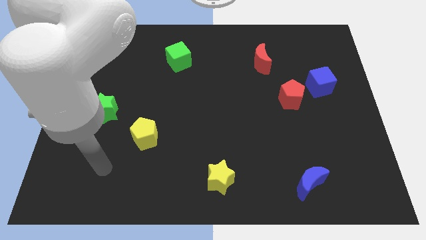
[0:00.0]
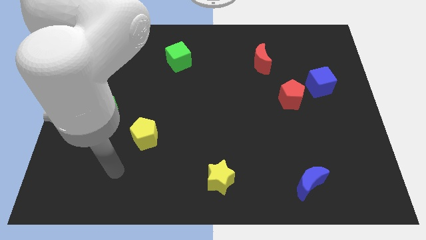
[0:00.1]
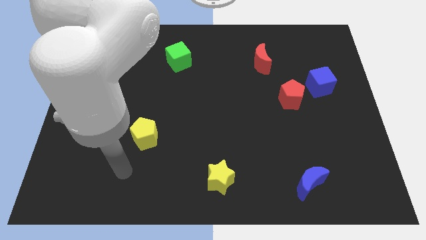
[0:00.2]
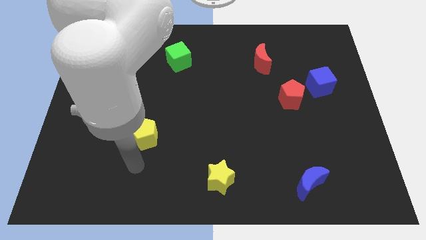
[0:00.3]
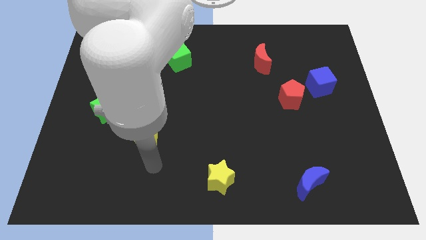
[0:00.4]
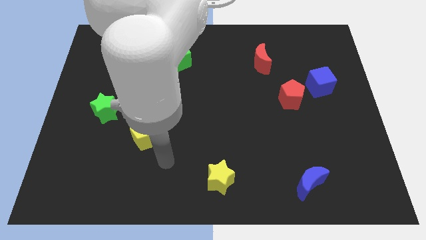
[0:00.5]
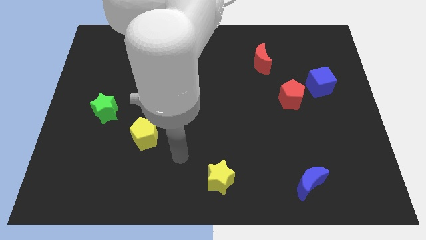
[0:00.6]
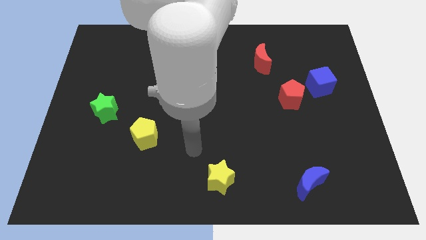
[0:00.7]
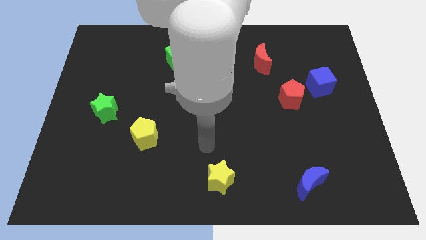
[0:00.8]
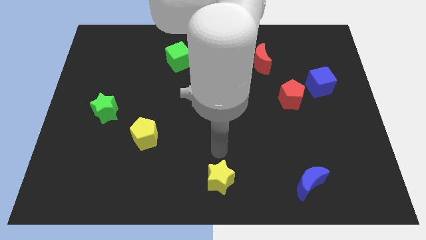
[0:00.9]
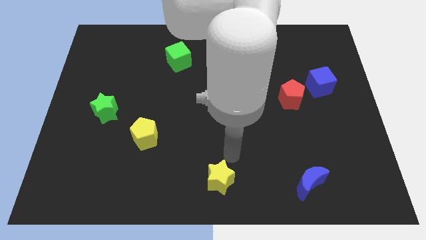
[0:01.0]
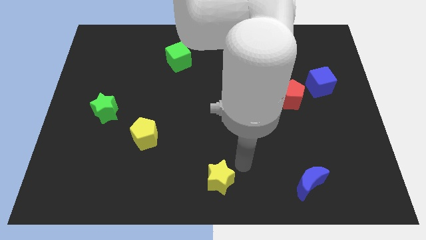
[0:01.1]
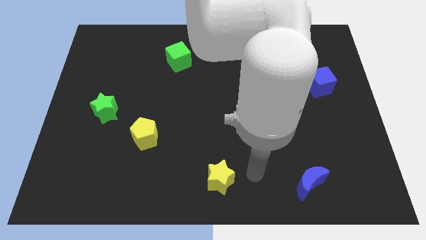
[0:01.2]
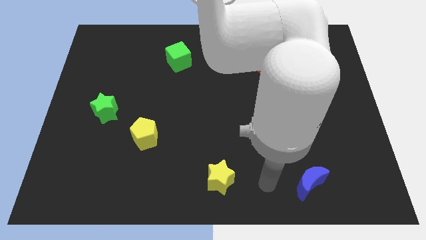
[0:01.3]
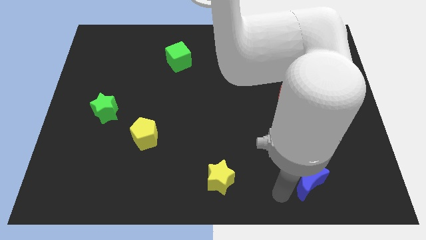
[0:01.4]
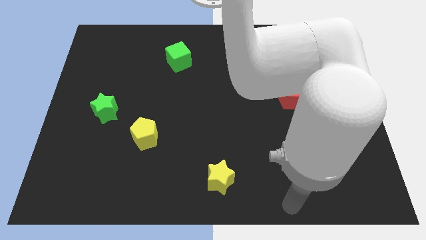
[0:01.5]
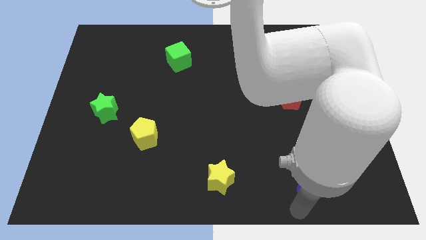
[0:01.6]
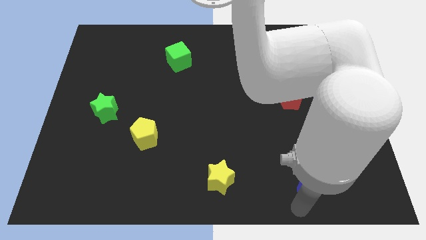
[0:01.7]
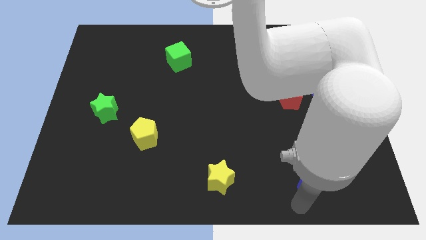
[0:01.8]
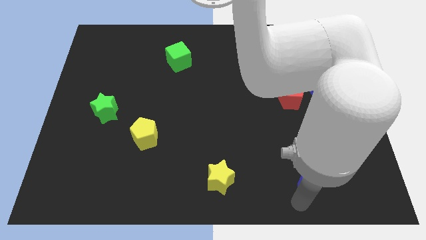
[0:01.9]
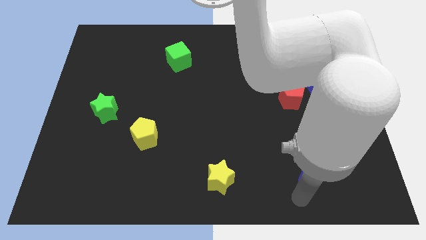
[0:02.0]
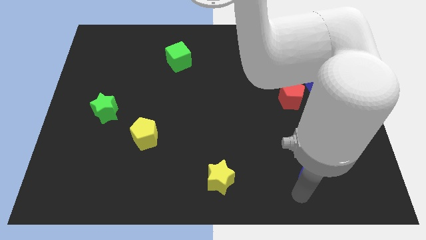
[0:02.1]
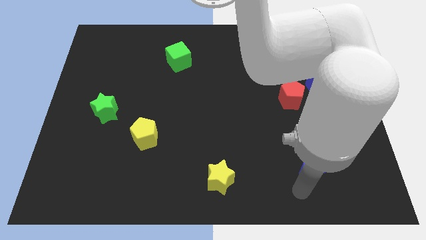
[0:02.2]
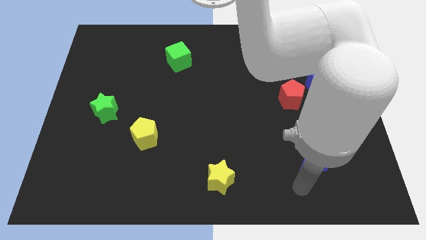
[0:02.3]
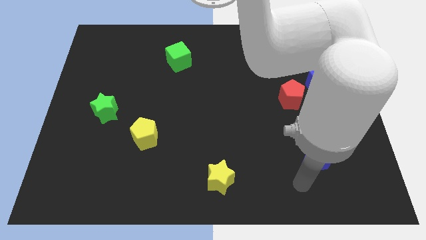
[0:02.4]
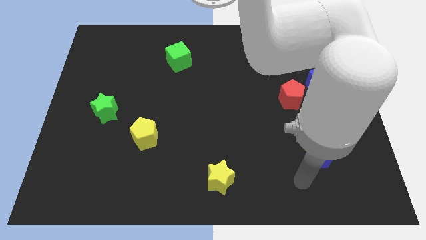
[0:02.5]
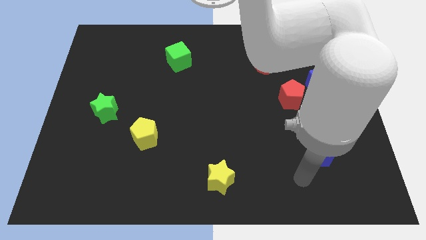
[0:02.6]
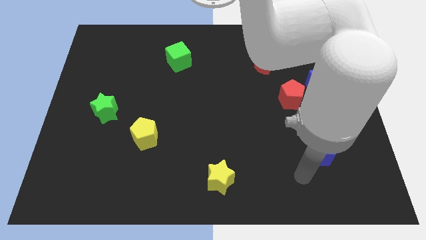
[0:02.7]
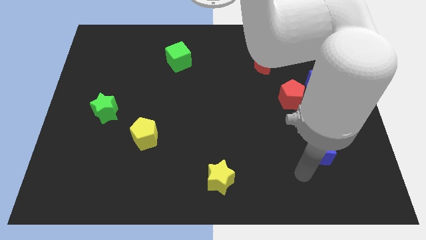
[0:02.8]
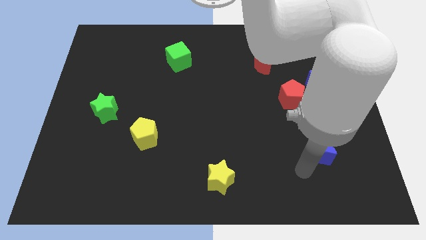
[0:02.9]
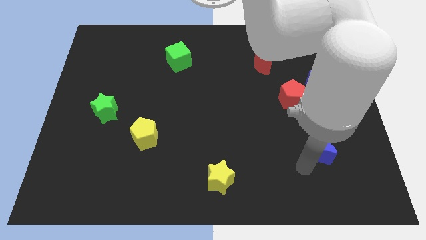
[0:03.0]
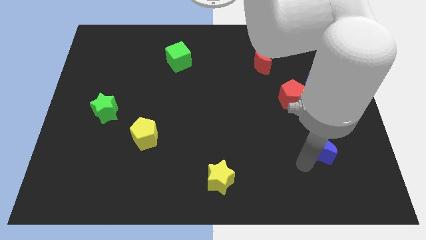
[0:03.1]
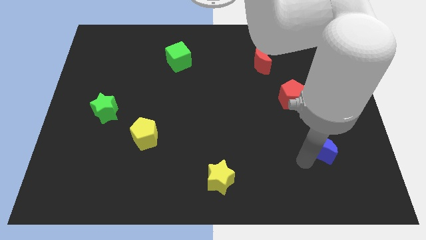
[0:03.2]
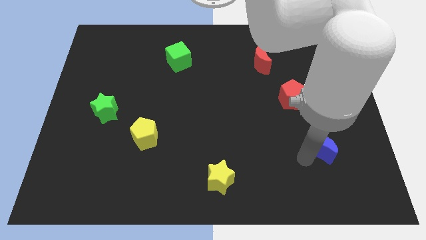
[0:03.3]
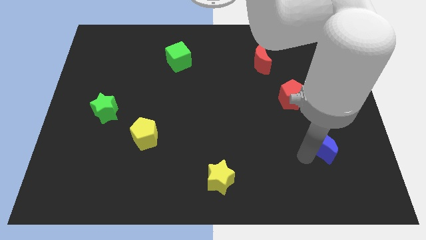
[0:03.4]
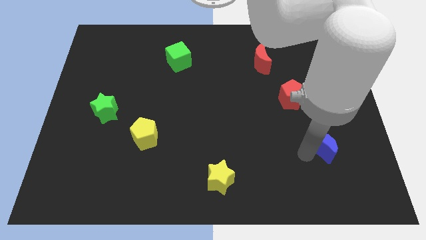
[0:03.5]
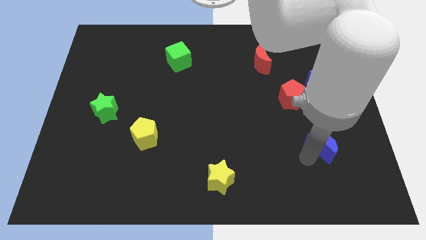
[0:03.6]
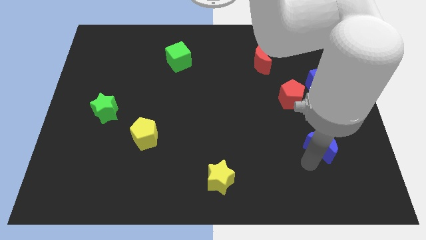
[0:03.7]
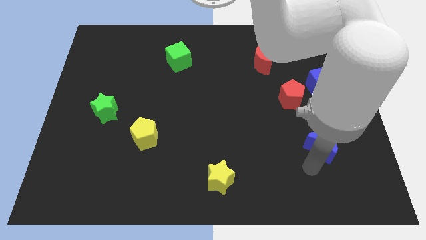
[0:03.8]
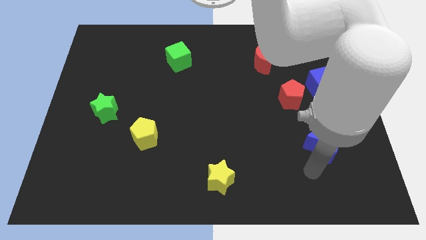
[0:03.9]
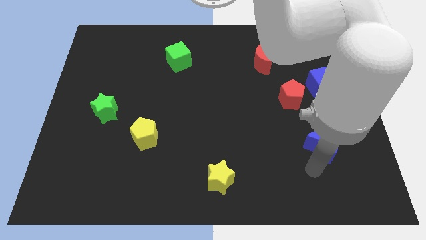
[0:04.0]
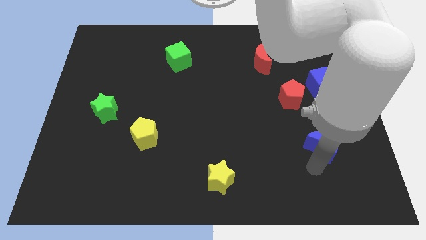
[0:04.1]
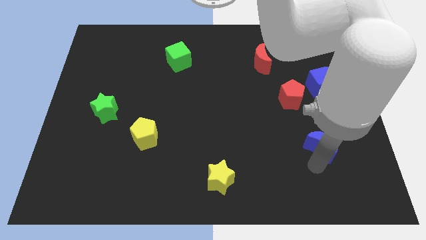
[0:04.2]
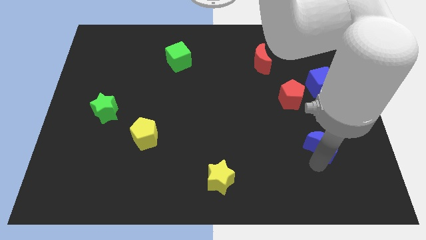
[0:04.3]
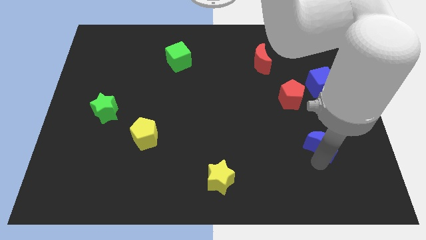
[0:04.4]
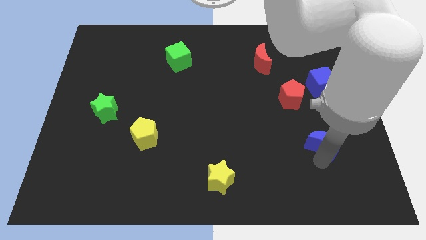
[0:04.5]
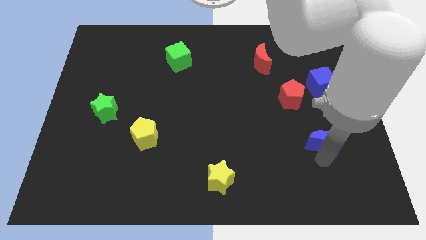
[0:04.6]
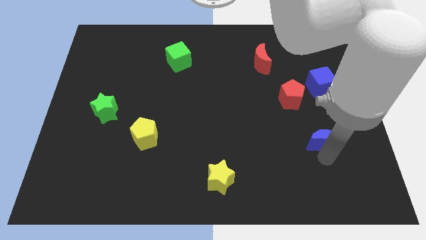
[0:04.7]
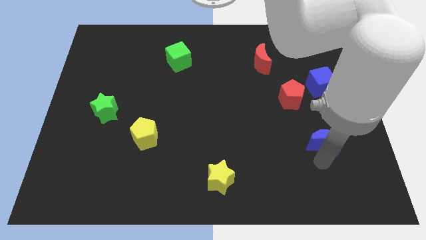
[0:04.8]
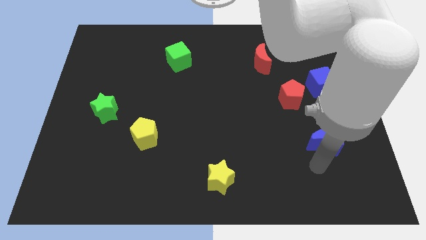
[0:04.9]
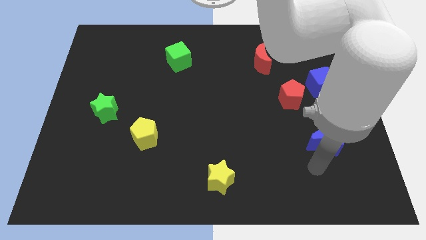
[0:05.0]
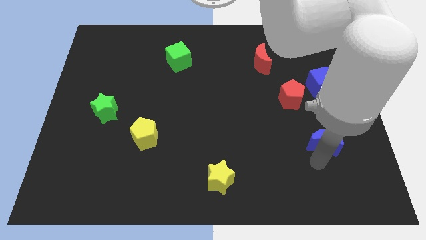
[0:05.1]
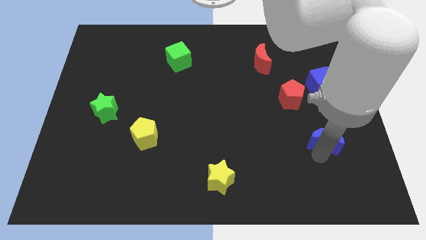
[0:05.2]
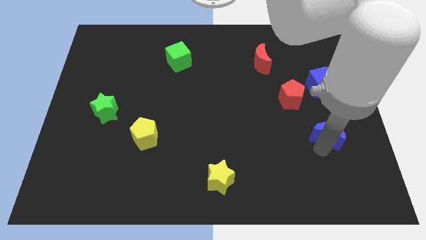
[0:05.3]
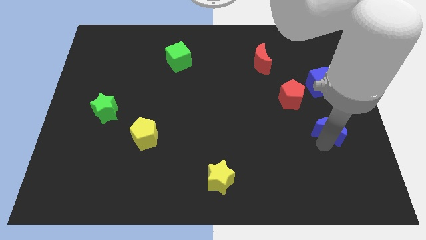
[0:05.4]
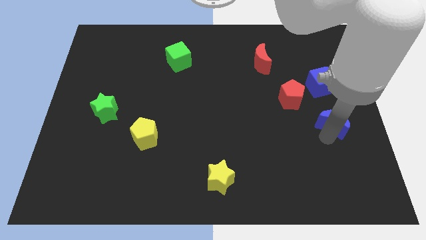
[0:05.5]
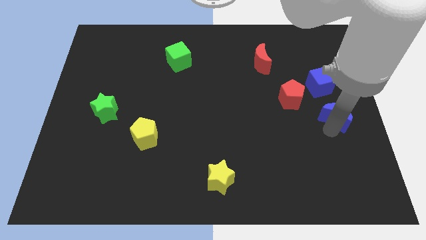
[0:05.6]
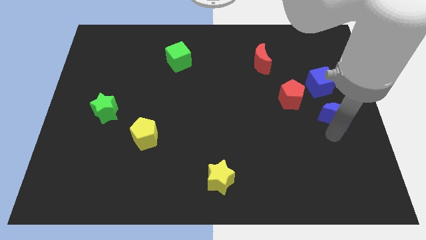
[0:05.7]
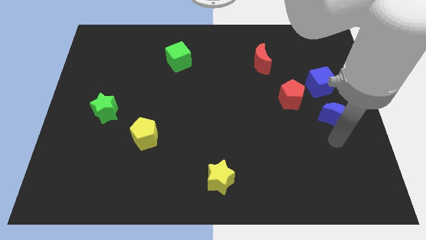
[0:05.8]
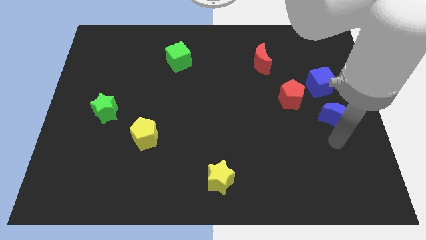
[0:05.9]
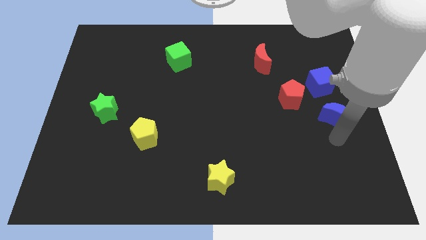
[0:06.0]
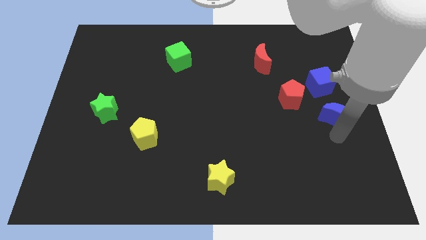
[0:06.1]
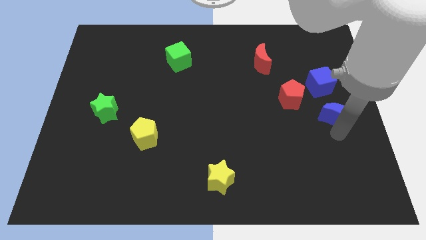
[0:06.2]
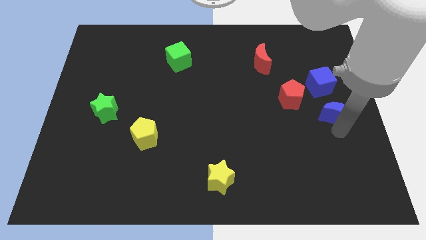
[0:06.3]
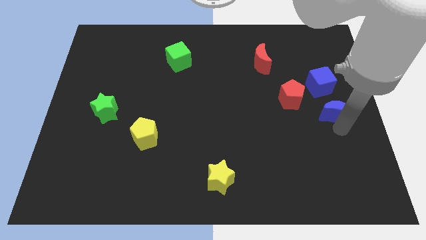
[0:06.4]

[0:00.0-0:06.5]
push the blue moon right of the red pentagon
